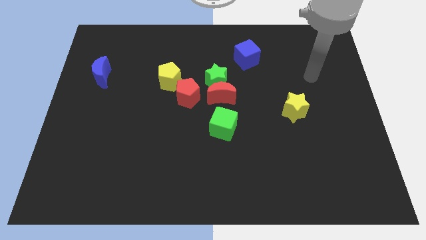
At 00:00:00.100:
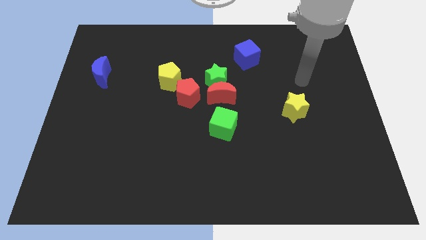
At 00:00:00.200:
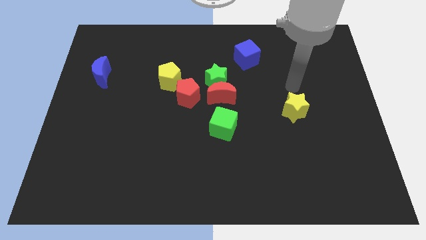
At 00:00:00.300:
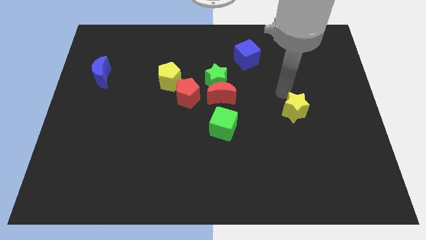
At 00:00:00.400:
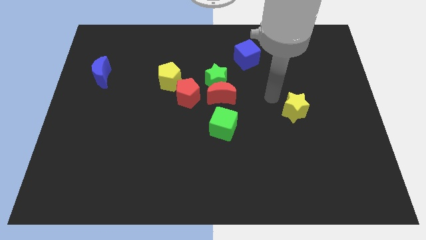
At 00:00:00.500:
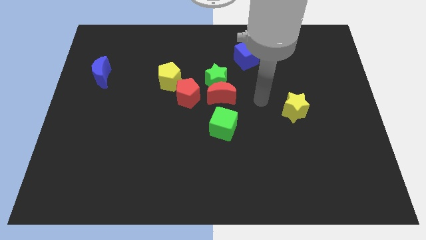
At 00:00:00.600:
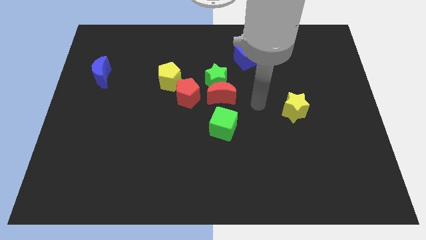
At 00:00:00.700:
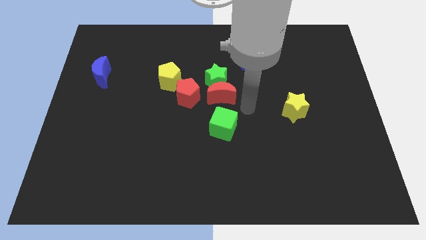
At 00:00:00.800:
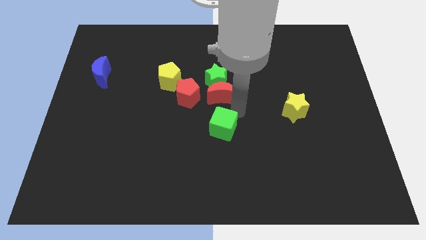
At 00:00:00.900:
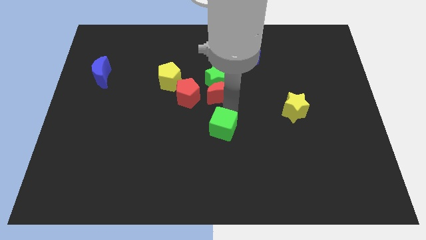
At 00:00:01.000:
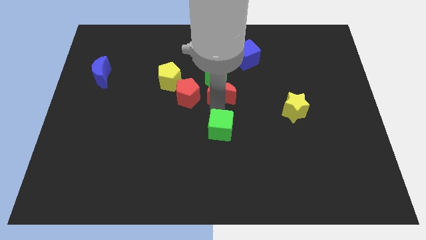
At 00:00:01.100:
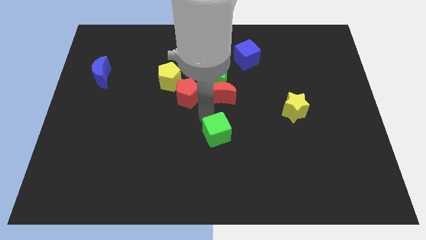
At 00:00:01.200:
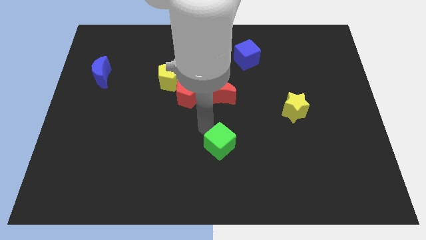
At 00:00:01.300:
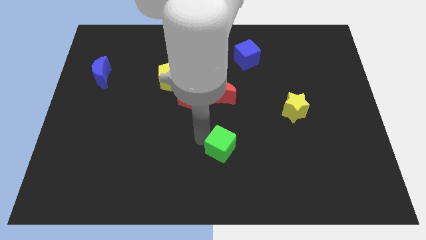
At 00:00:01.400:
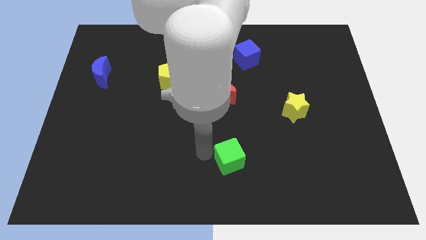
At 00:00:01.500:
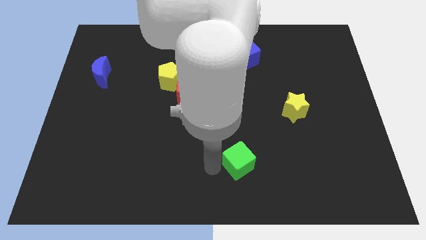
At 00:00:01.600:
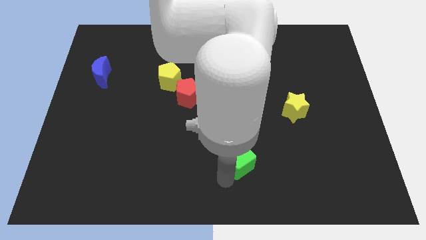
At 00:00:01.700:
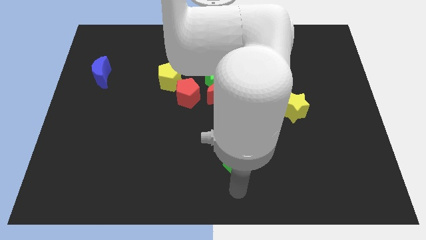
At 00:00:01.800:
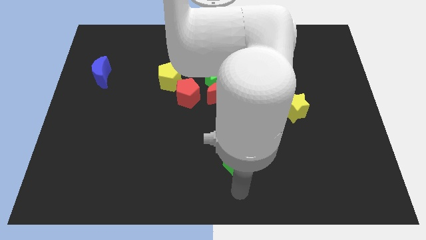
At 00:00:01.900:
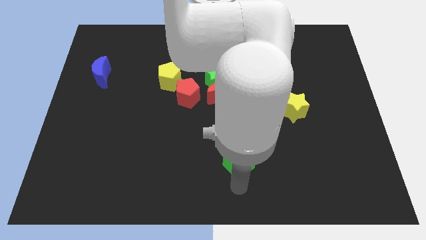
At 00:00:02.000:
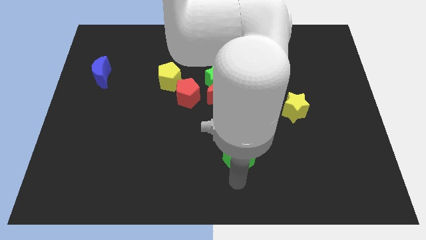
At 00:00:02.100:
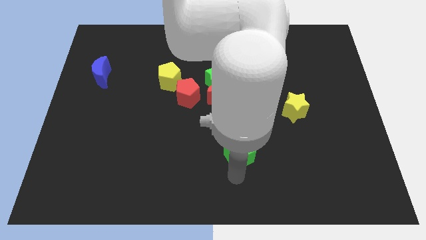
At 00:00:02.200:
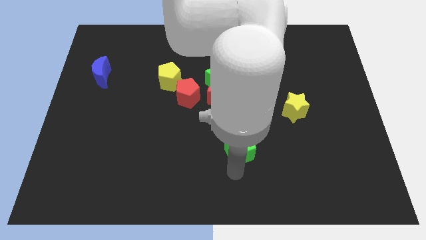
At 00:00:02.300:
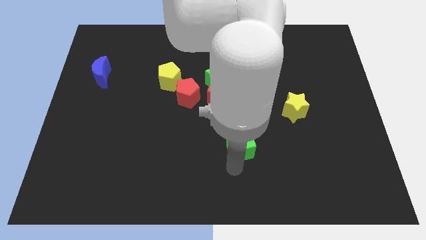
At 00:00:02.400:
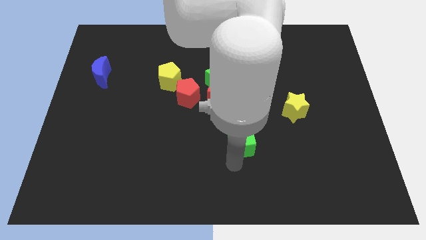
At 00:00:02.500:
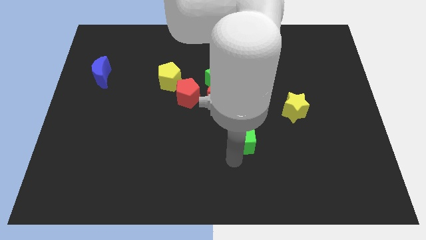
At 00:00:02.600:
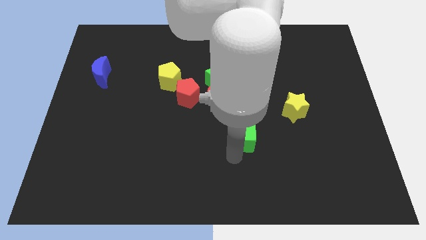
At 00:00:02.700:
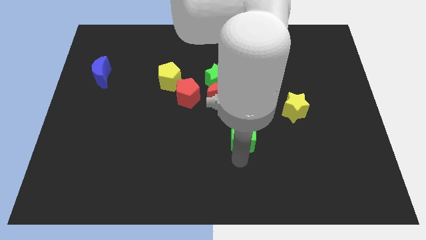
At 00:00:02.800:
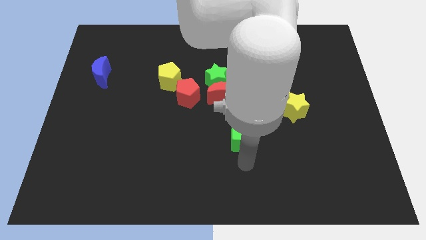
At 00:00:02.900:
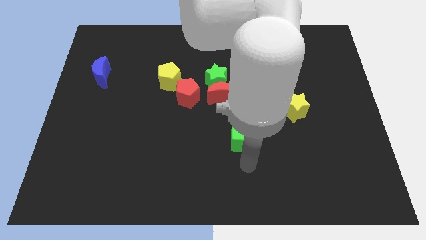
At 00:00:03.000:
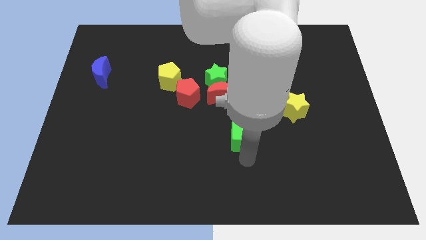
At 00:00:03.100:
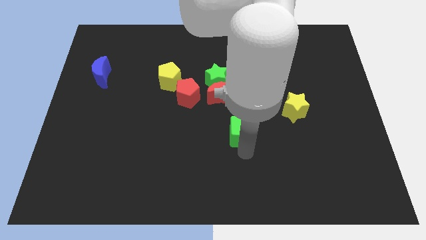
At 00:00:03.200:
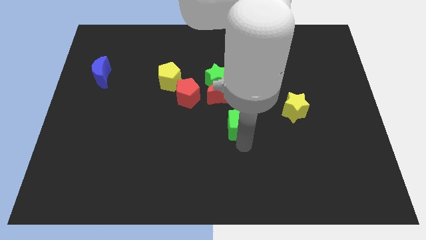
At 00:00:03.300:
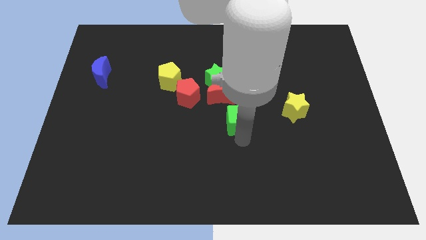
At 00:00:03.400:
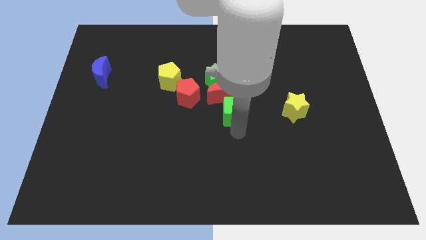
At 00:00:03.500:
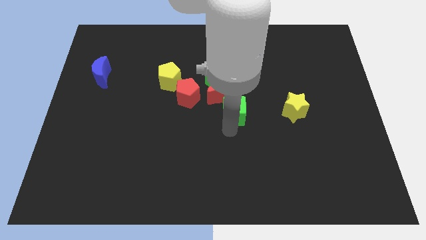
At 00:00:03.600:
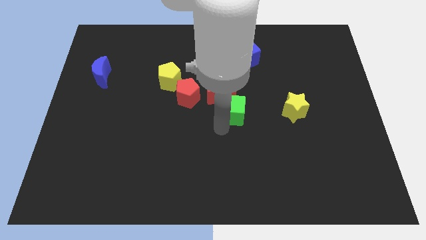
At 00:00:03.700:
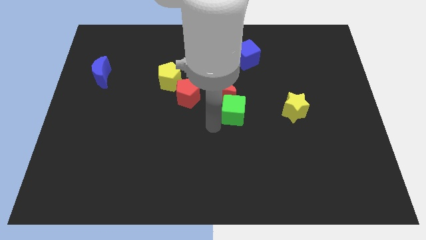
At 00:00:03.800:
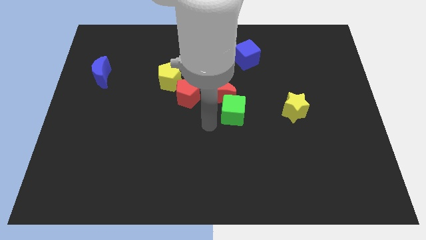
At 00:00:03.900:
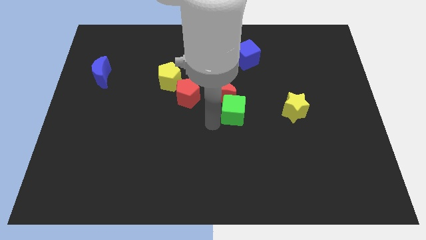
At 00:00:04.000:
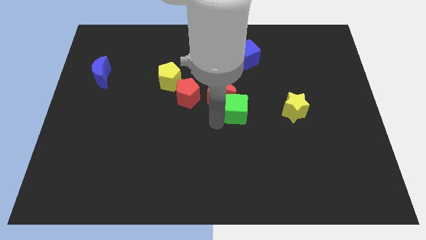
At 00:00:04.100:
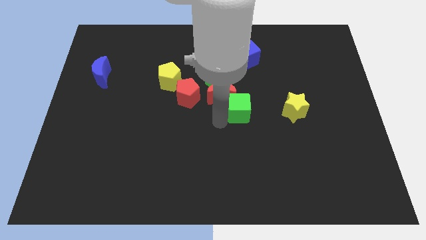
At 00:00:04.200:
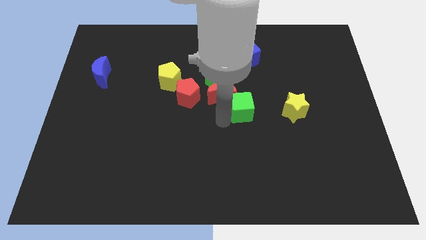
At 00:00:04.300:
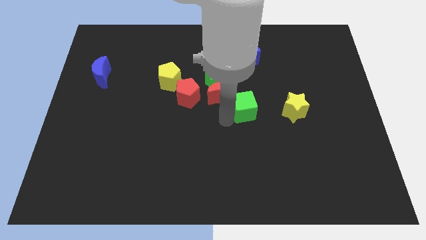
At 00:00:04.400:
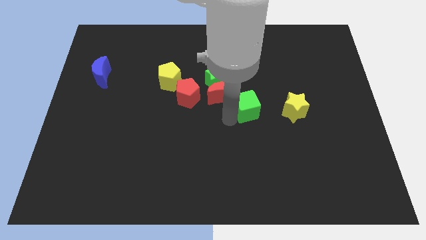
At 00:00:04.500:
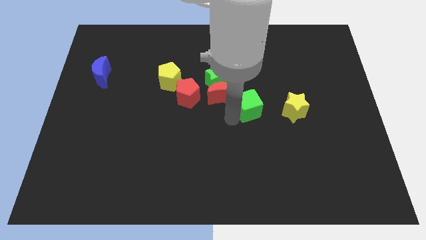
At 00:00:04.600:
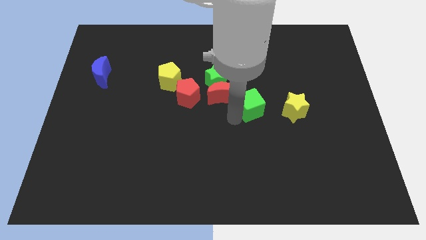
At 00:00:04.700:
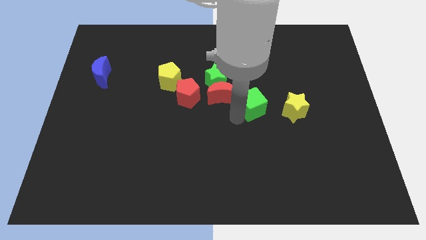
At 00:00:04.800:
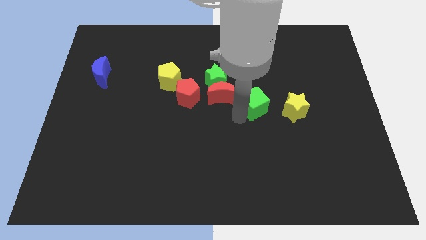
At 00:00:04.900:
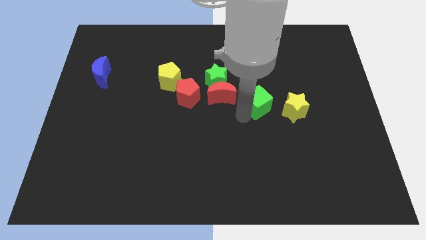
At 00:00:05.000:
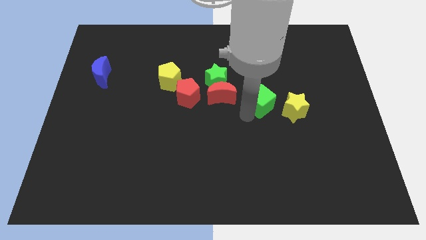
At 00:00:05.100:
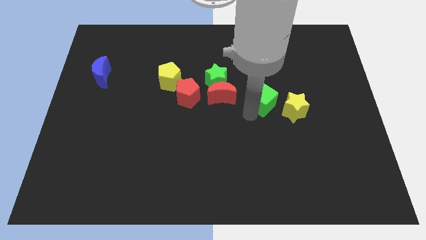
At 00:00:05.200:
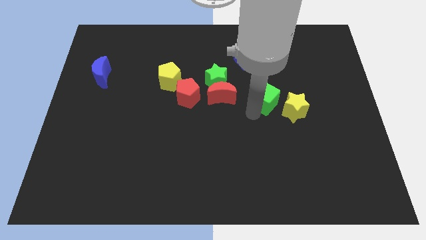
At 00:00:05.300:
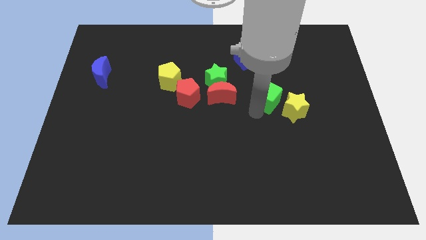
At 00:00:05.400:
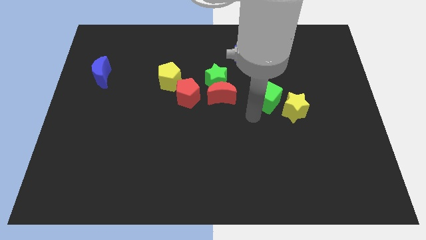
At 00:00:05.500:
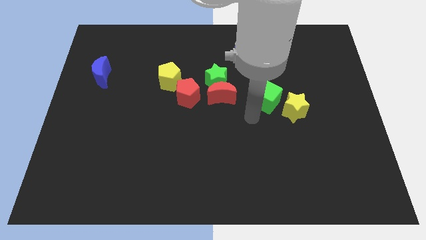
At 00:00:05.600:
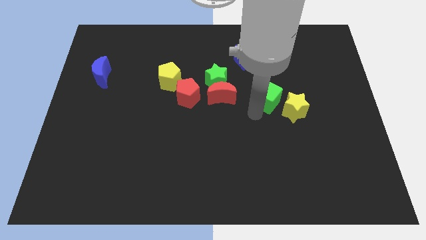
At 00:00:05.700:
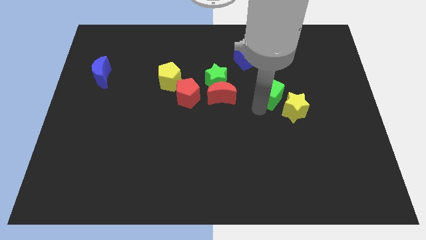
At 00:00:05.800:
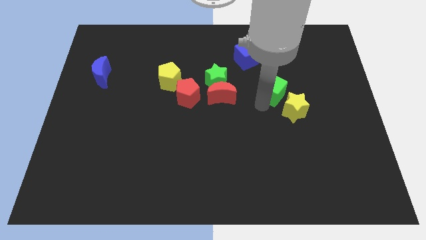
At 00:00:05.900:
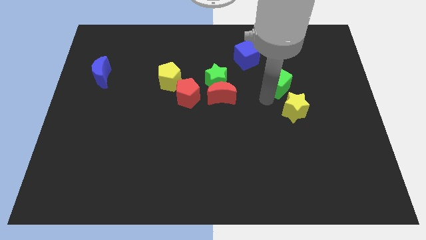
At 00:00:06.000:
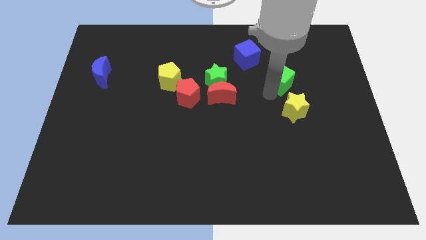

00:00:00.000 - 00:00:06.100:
push the green cube up and to the right diagonally

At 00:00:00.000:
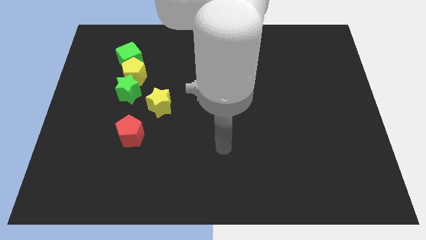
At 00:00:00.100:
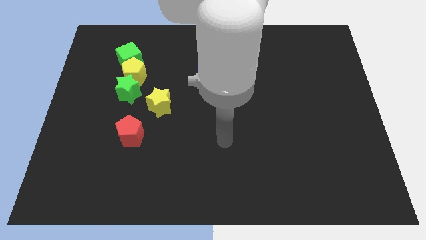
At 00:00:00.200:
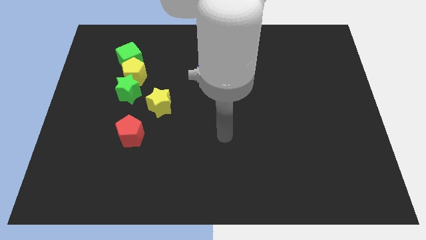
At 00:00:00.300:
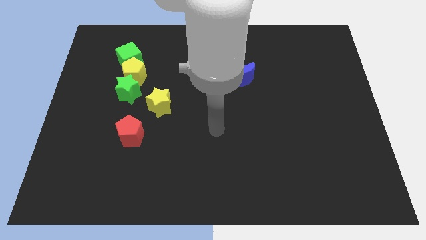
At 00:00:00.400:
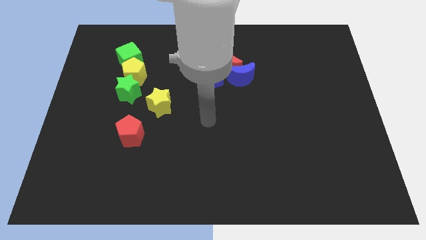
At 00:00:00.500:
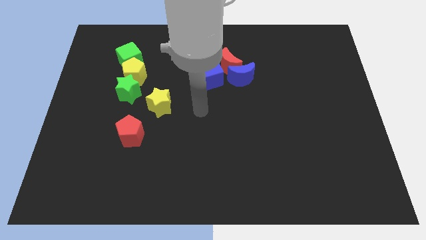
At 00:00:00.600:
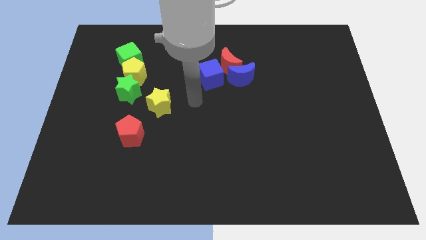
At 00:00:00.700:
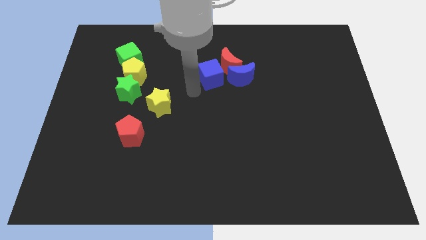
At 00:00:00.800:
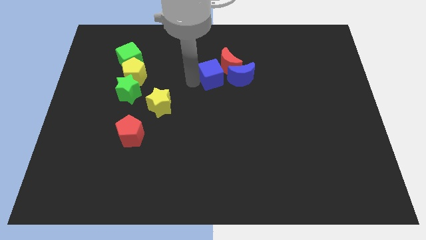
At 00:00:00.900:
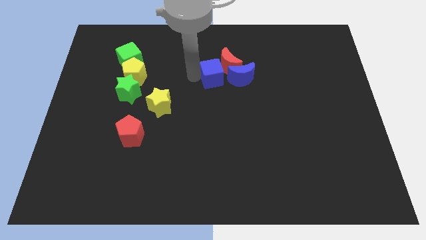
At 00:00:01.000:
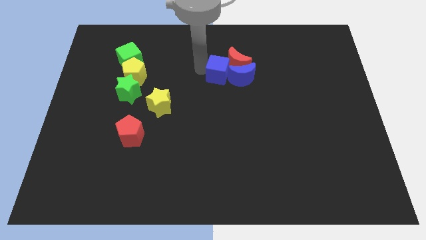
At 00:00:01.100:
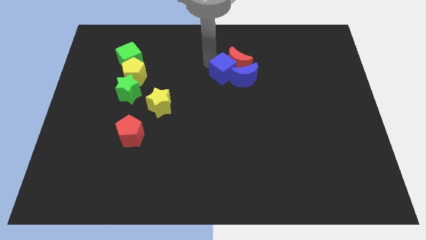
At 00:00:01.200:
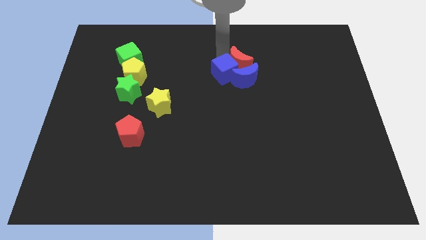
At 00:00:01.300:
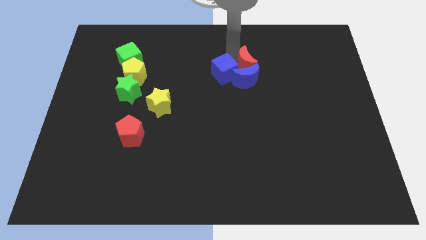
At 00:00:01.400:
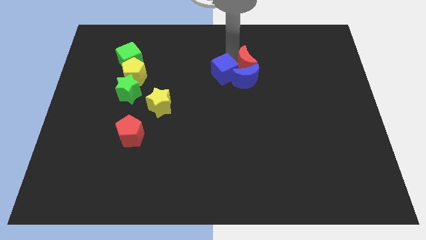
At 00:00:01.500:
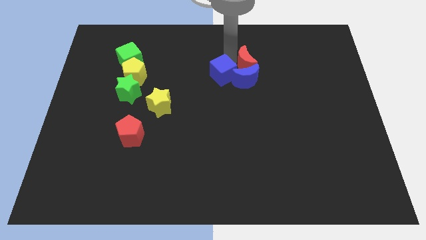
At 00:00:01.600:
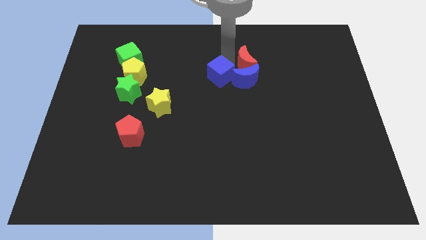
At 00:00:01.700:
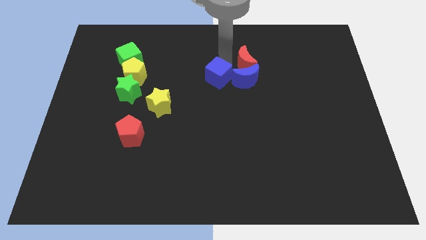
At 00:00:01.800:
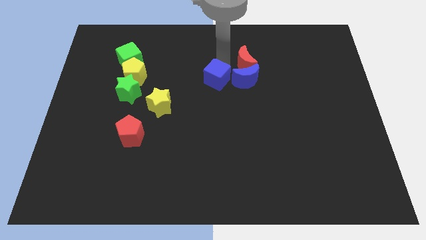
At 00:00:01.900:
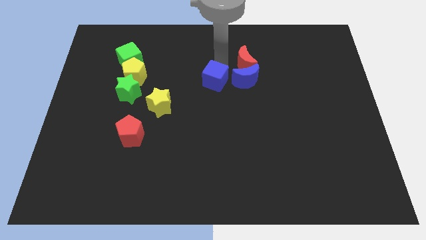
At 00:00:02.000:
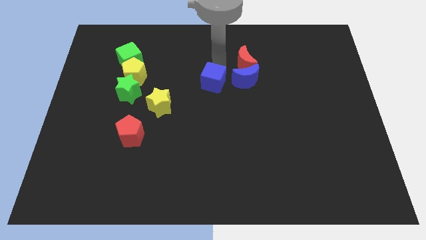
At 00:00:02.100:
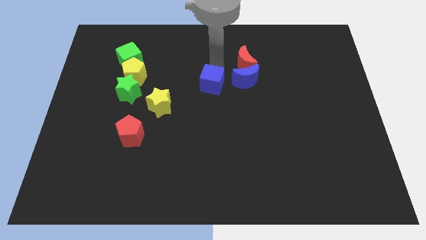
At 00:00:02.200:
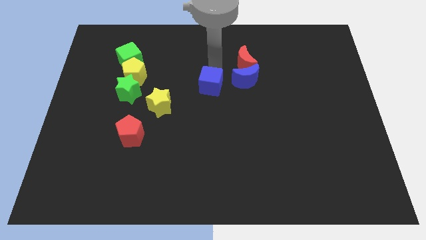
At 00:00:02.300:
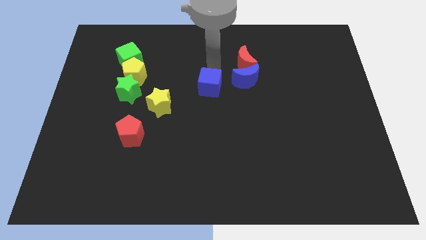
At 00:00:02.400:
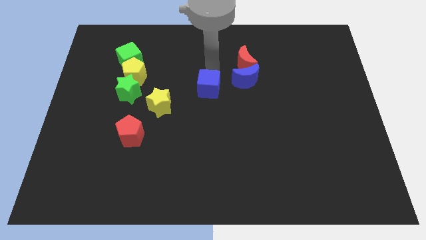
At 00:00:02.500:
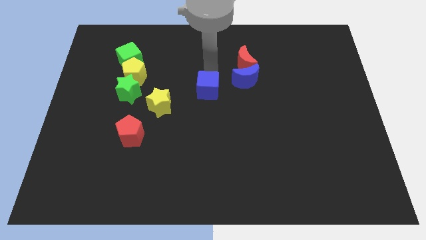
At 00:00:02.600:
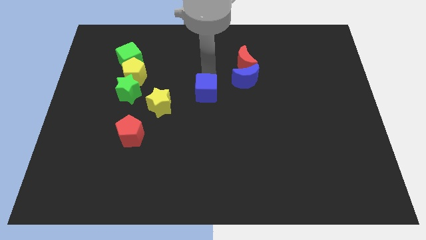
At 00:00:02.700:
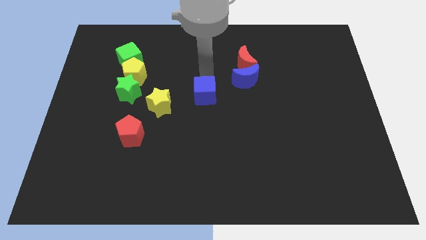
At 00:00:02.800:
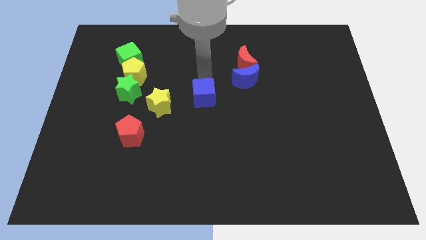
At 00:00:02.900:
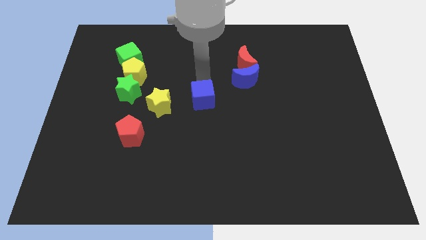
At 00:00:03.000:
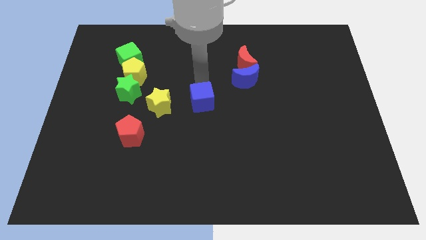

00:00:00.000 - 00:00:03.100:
move the blue cube down slightly
